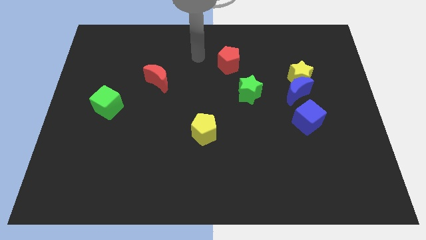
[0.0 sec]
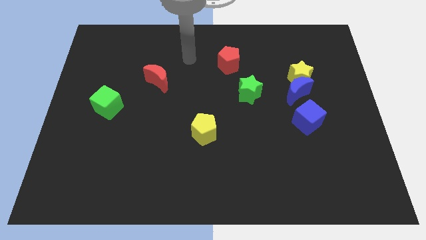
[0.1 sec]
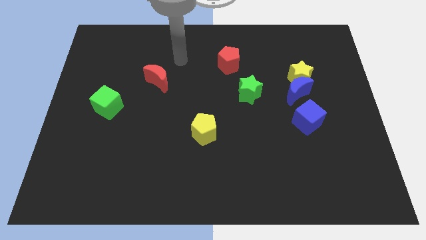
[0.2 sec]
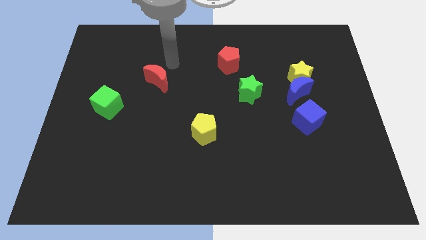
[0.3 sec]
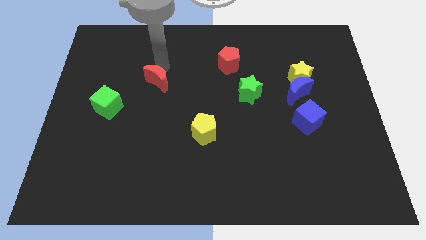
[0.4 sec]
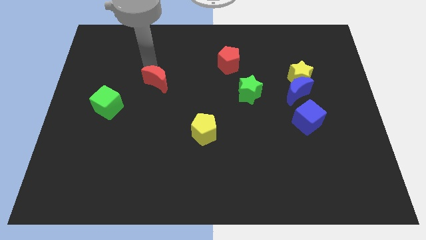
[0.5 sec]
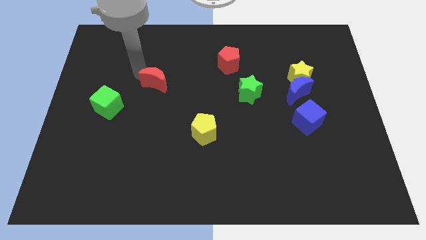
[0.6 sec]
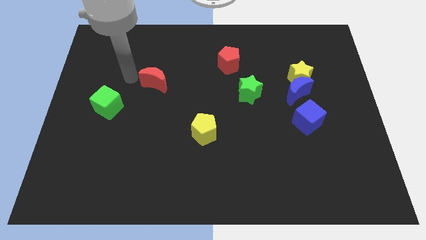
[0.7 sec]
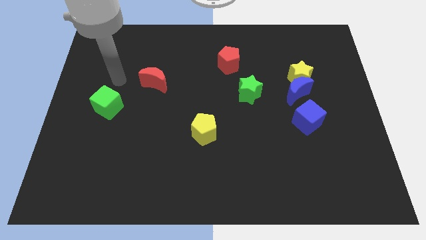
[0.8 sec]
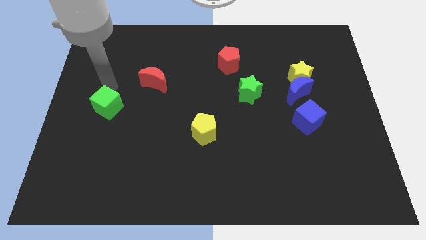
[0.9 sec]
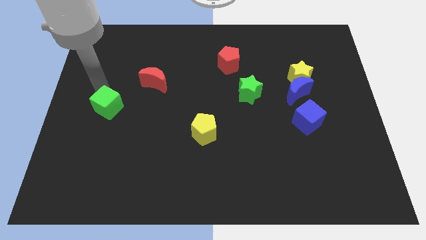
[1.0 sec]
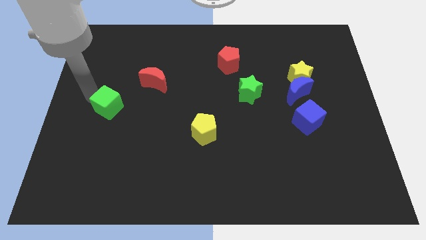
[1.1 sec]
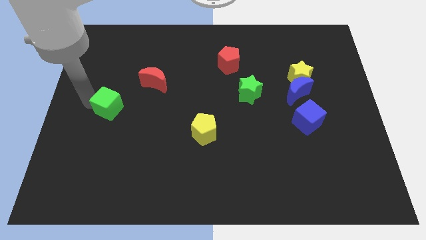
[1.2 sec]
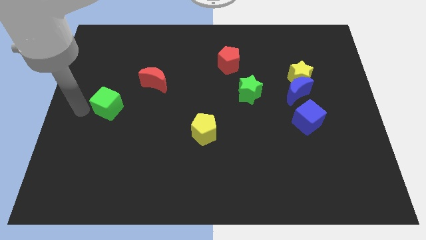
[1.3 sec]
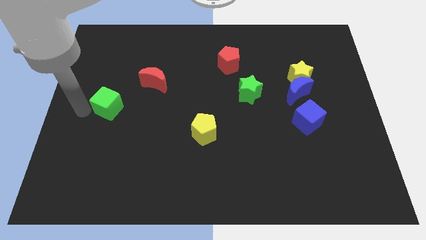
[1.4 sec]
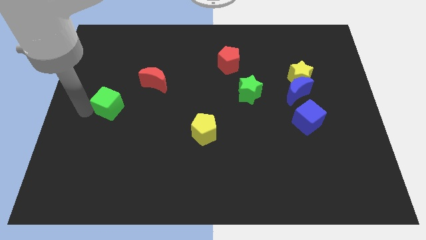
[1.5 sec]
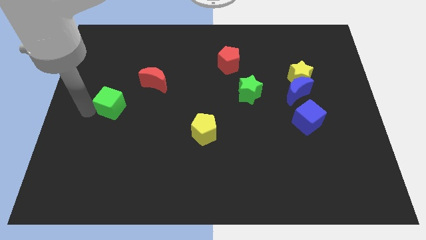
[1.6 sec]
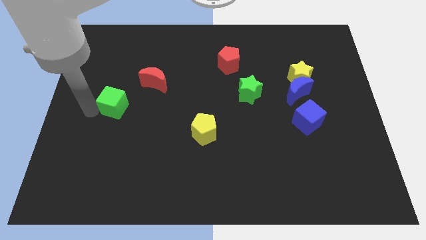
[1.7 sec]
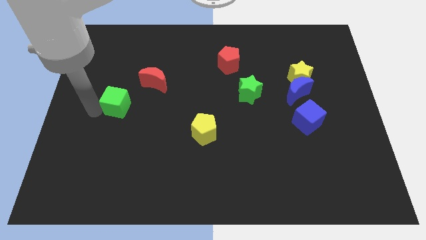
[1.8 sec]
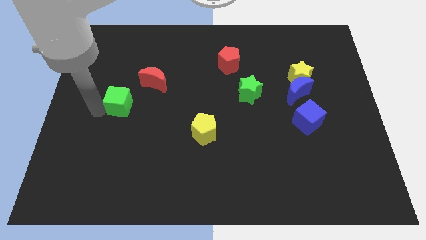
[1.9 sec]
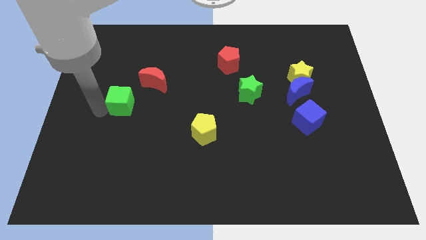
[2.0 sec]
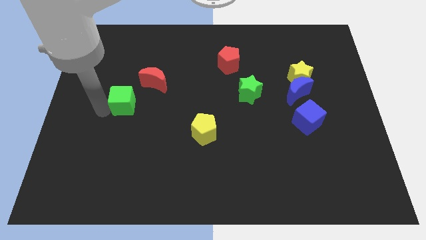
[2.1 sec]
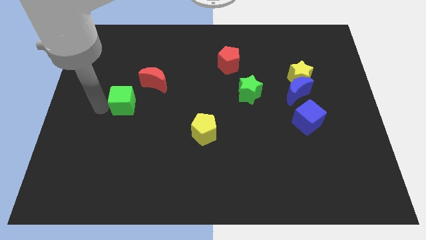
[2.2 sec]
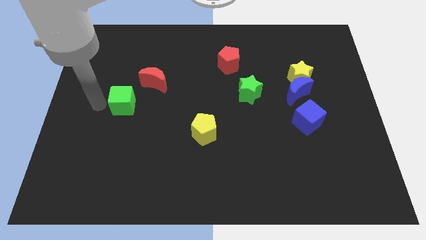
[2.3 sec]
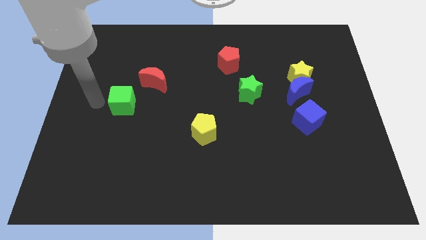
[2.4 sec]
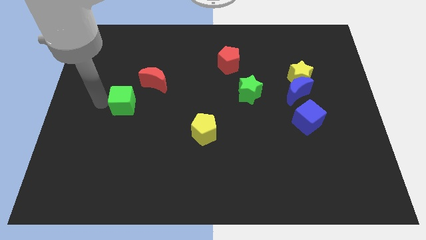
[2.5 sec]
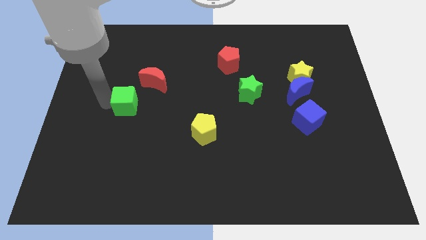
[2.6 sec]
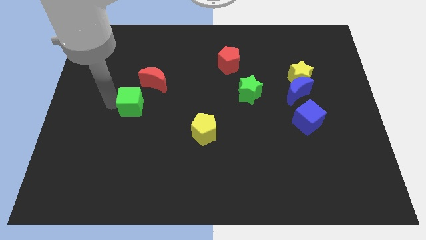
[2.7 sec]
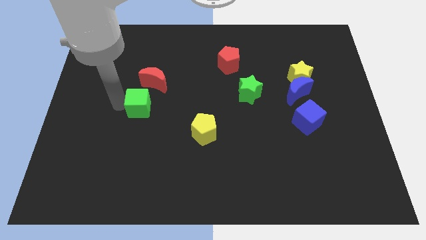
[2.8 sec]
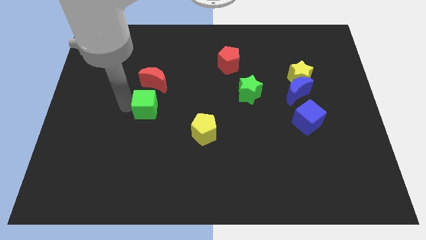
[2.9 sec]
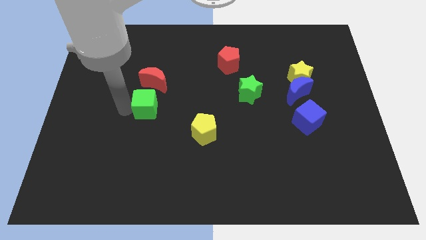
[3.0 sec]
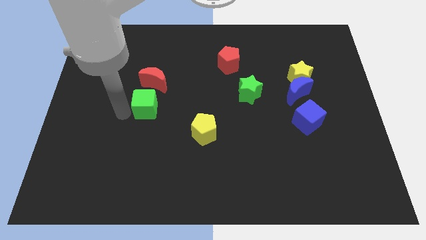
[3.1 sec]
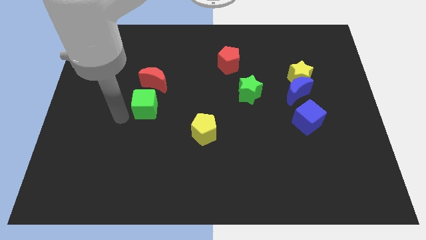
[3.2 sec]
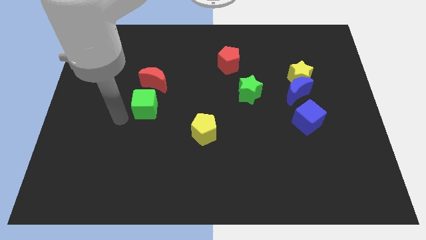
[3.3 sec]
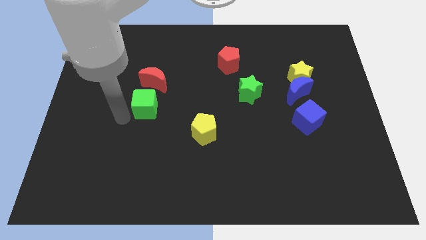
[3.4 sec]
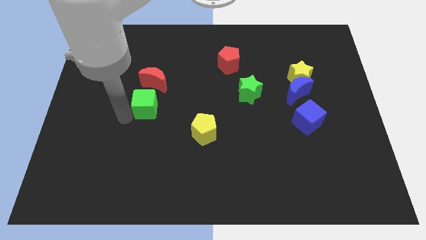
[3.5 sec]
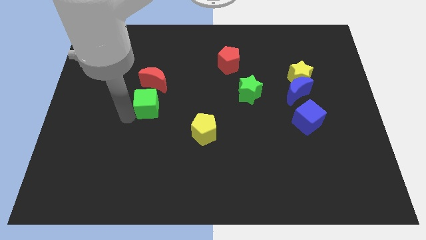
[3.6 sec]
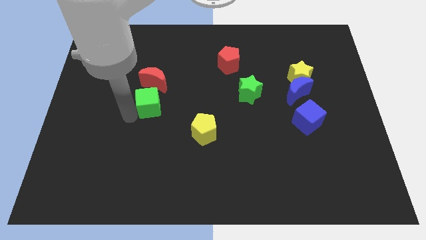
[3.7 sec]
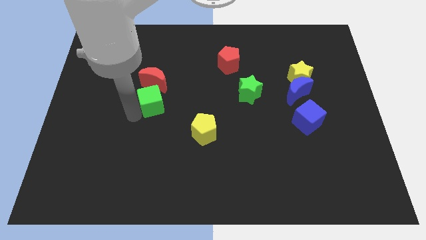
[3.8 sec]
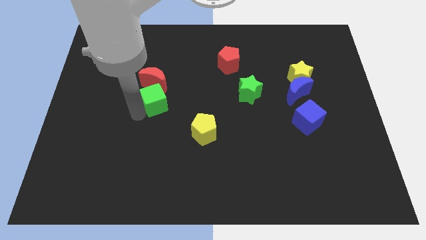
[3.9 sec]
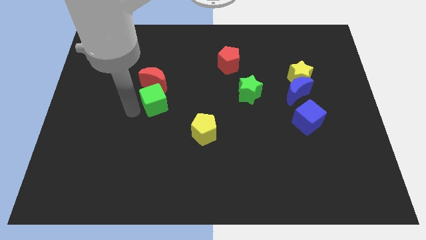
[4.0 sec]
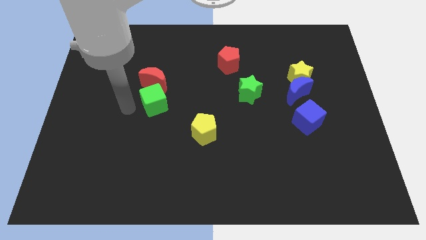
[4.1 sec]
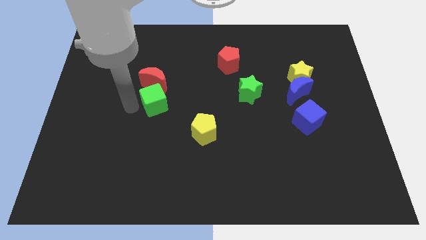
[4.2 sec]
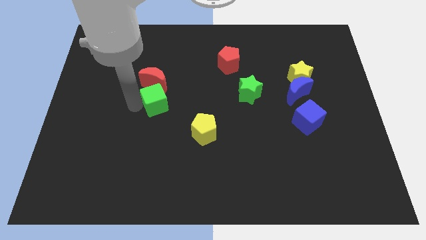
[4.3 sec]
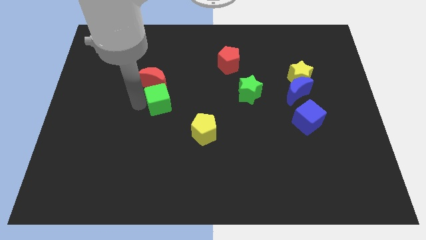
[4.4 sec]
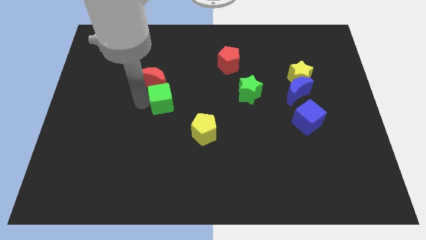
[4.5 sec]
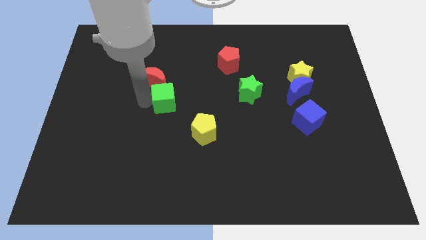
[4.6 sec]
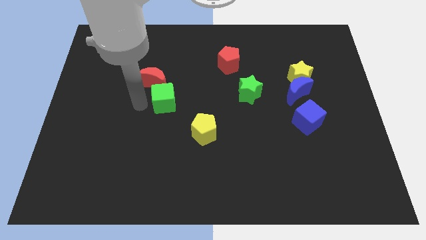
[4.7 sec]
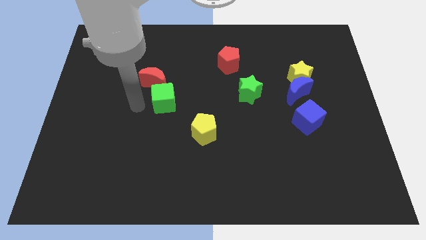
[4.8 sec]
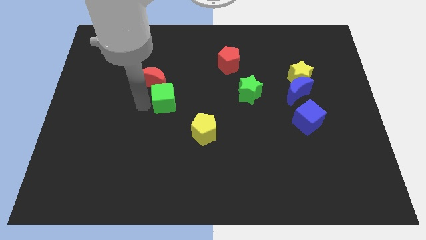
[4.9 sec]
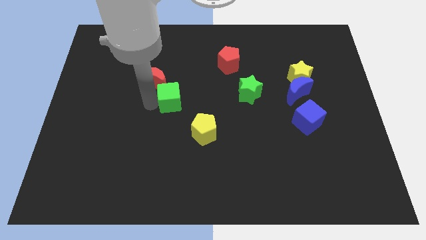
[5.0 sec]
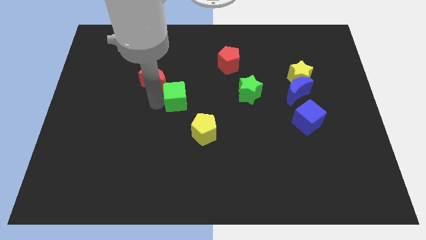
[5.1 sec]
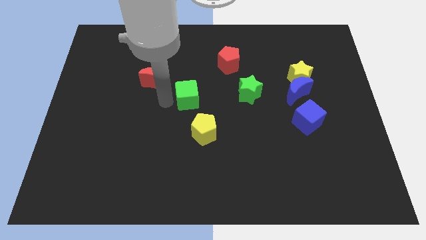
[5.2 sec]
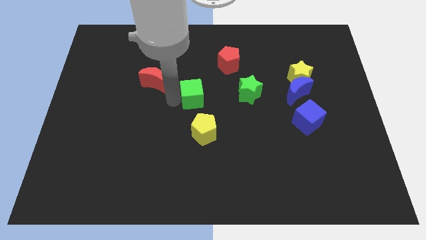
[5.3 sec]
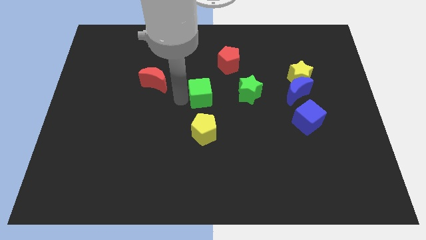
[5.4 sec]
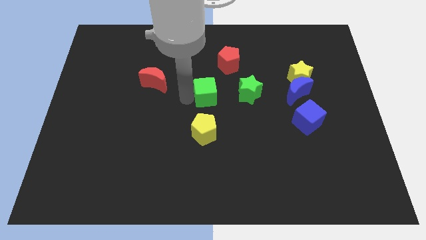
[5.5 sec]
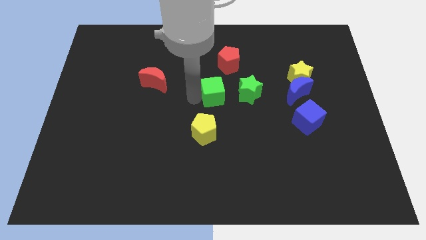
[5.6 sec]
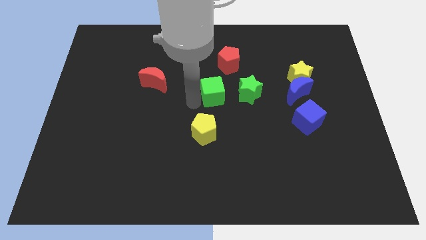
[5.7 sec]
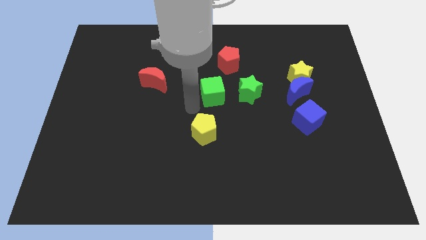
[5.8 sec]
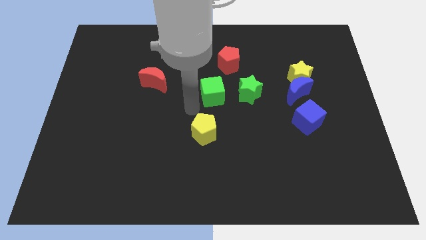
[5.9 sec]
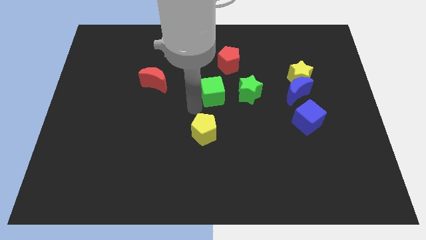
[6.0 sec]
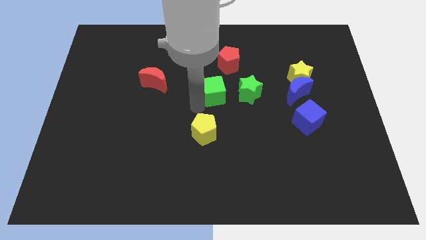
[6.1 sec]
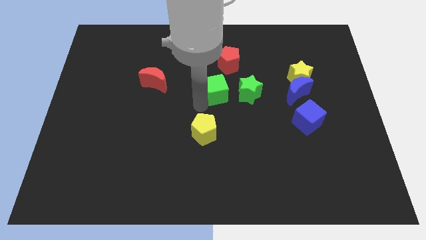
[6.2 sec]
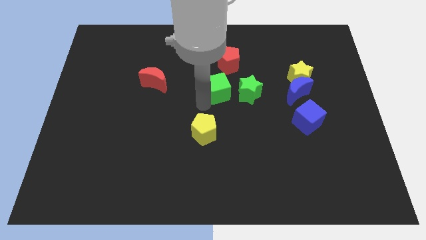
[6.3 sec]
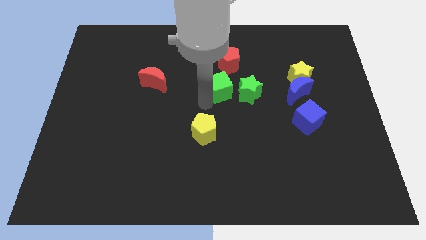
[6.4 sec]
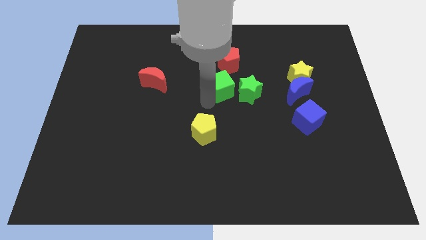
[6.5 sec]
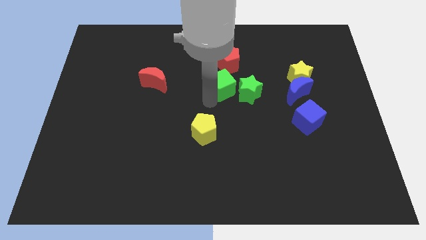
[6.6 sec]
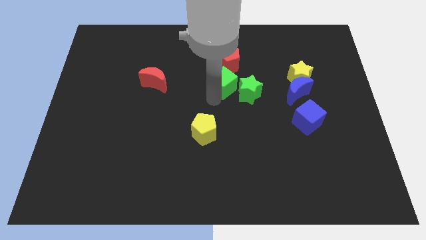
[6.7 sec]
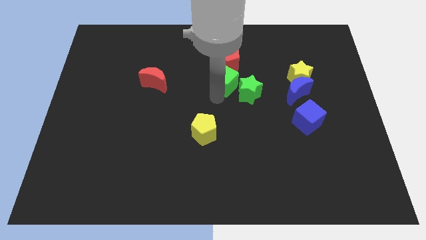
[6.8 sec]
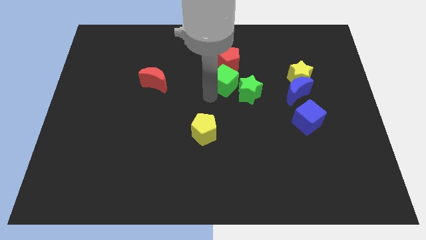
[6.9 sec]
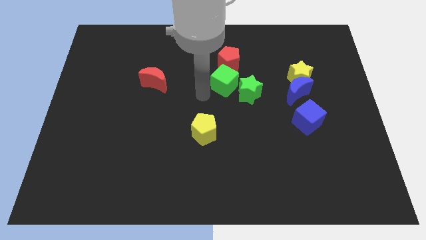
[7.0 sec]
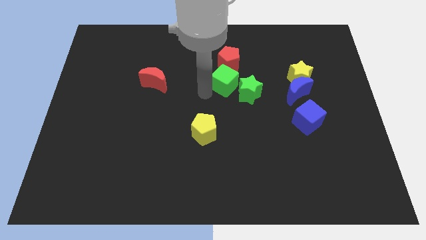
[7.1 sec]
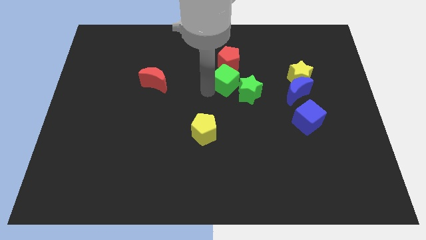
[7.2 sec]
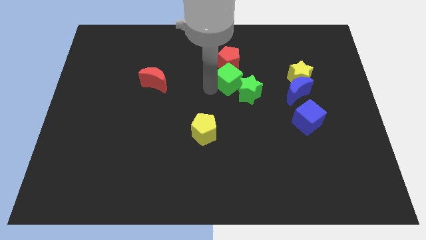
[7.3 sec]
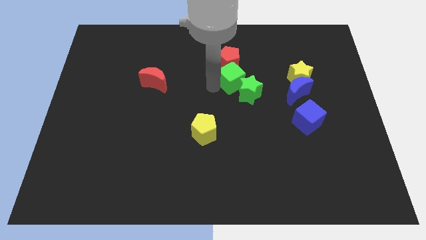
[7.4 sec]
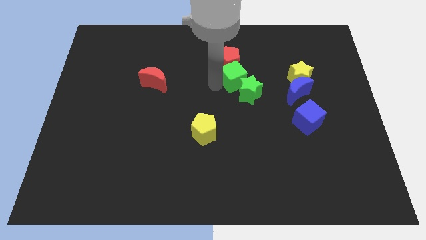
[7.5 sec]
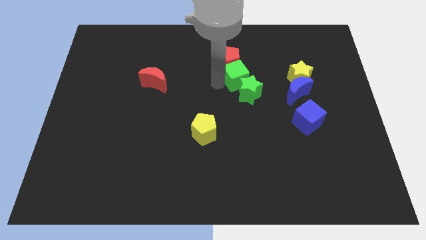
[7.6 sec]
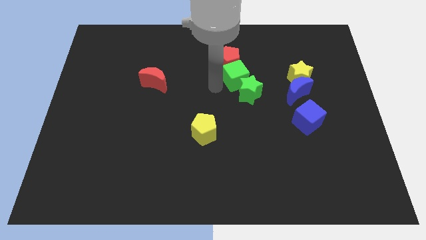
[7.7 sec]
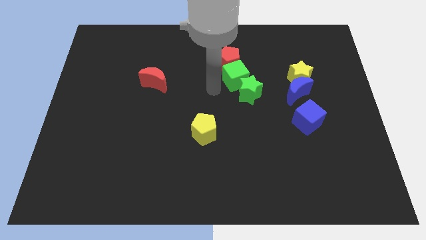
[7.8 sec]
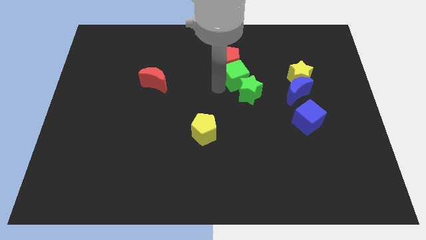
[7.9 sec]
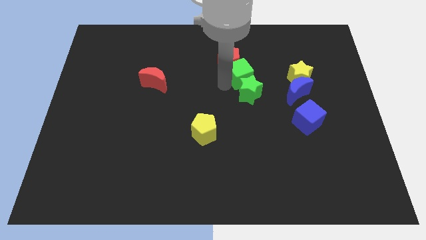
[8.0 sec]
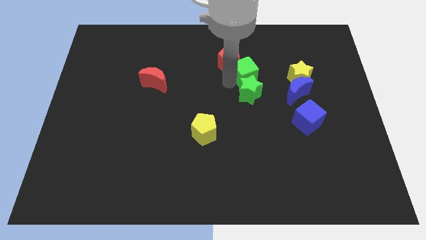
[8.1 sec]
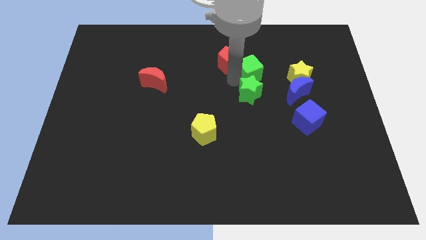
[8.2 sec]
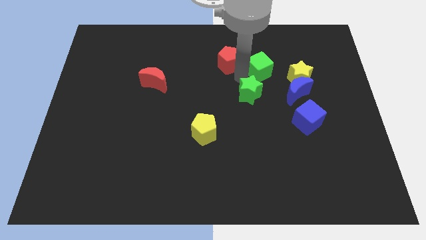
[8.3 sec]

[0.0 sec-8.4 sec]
slide the green cube diagonally up and to the left of the yellow star
